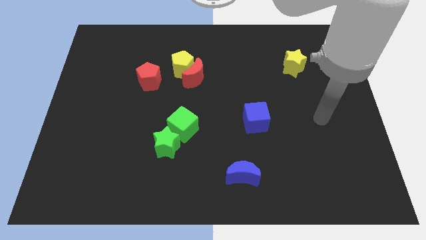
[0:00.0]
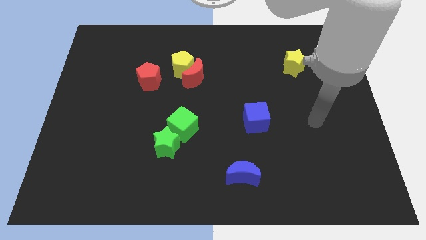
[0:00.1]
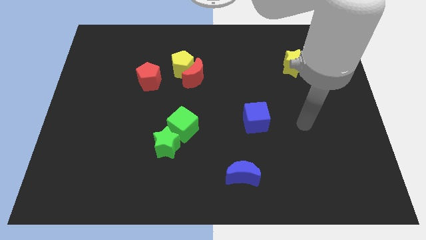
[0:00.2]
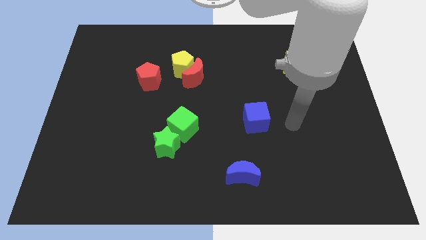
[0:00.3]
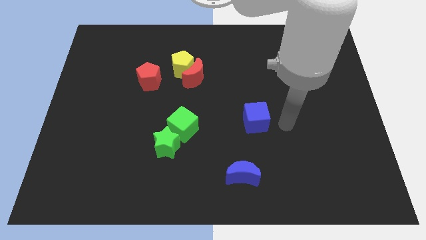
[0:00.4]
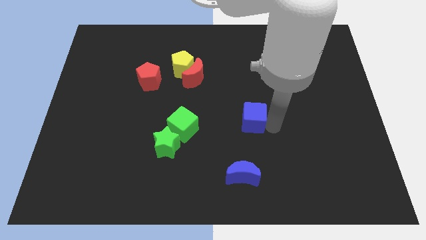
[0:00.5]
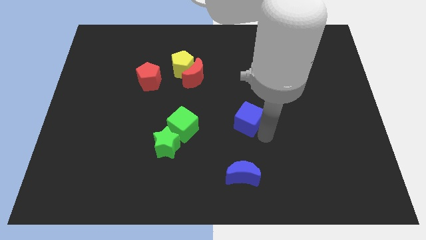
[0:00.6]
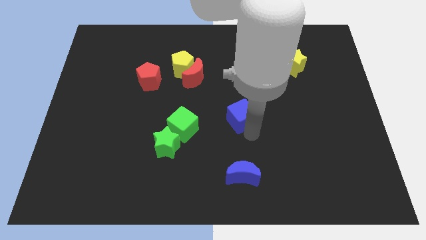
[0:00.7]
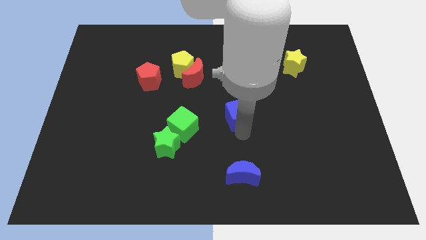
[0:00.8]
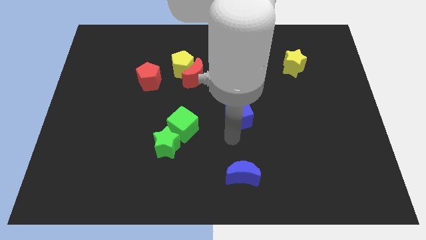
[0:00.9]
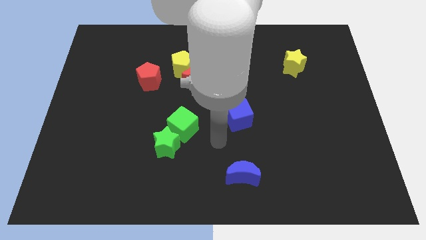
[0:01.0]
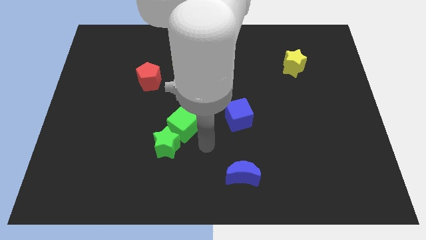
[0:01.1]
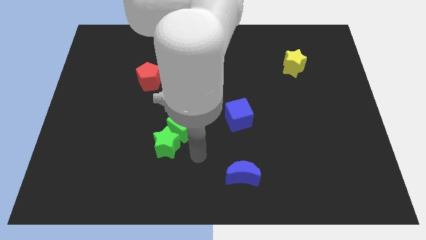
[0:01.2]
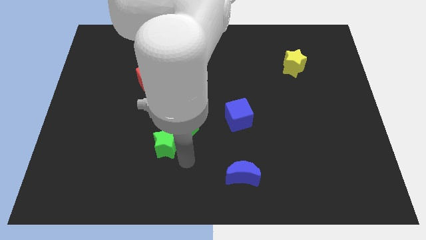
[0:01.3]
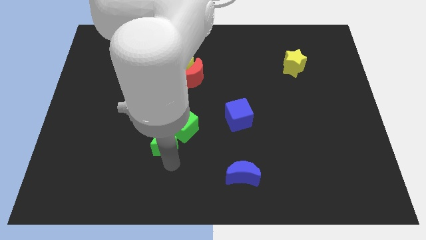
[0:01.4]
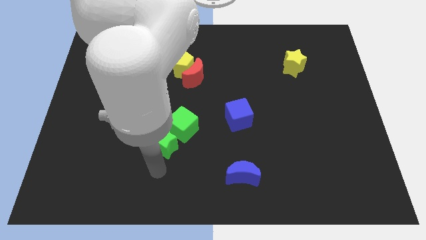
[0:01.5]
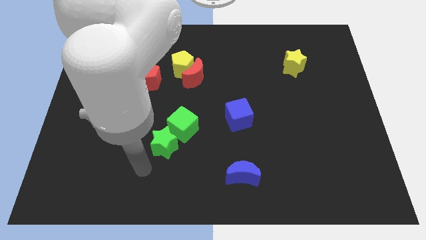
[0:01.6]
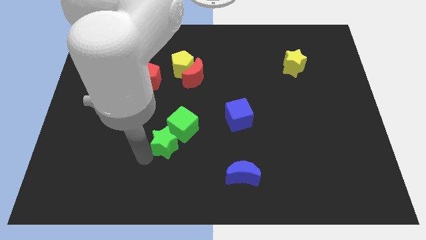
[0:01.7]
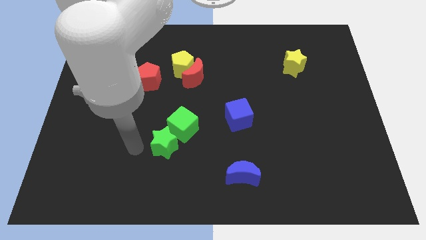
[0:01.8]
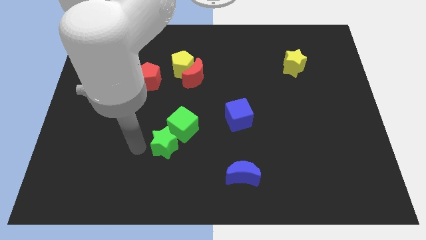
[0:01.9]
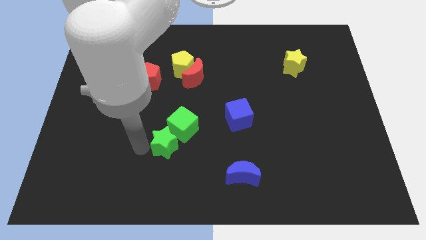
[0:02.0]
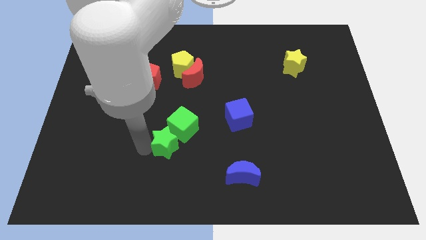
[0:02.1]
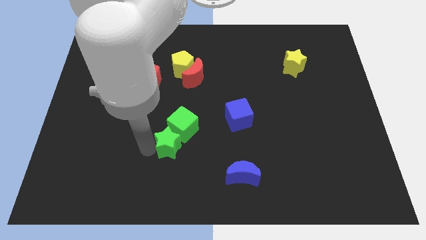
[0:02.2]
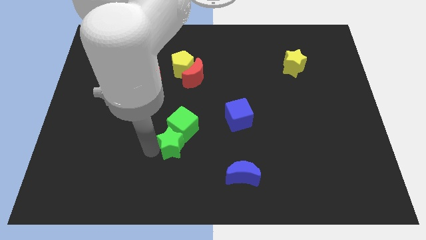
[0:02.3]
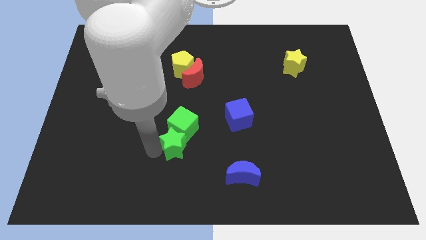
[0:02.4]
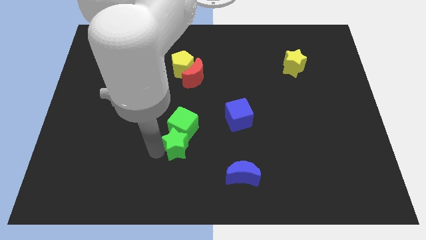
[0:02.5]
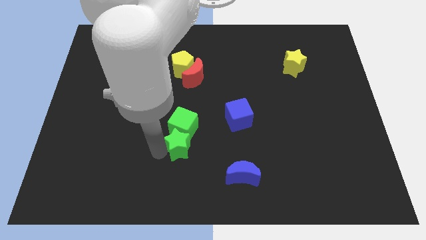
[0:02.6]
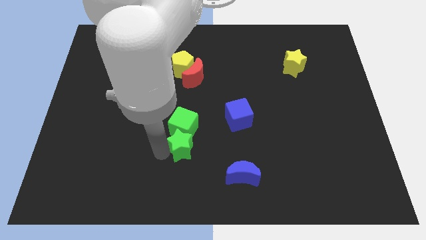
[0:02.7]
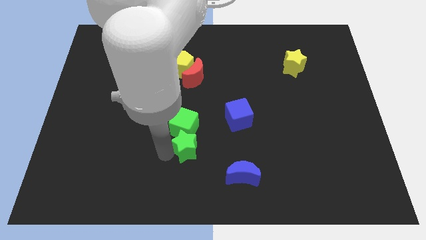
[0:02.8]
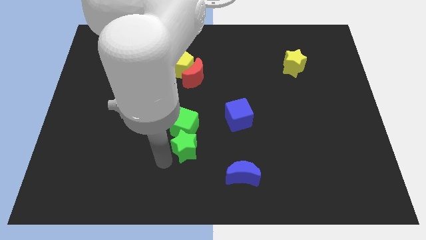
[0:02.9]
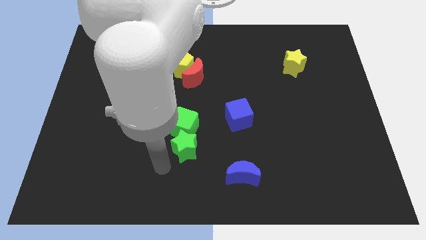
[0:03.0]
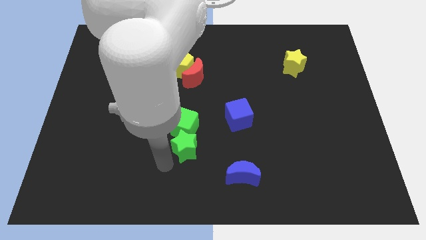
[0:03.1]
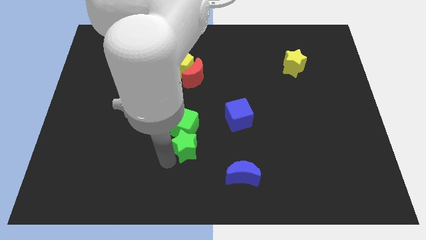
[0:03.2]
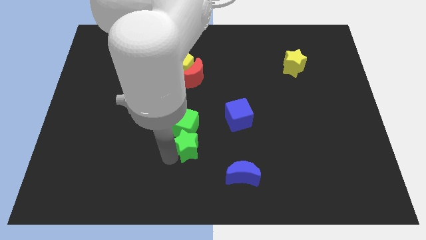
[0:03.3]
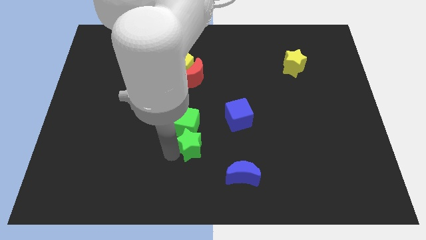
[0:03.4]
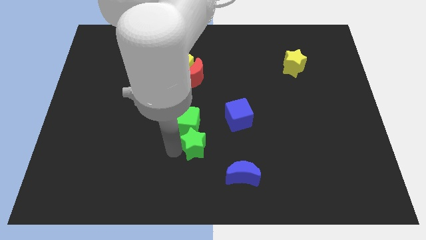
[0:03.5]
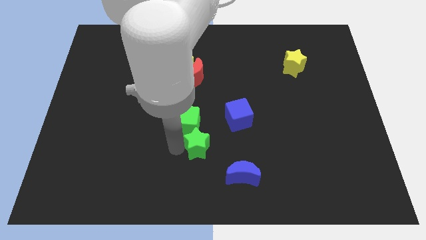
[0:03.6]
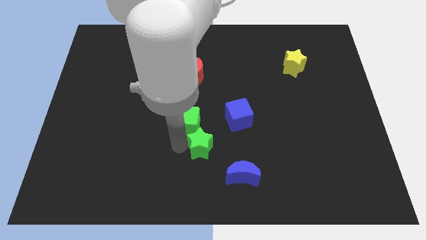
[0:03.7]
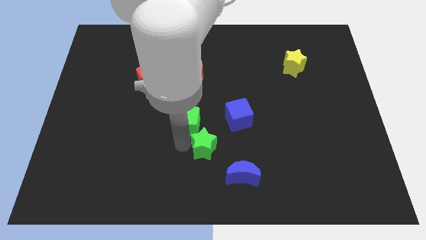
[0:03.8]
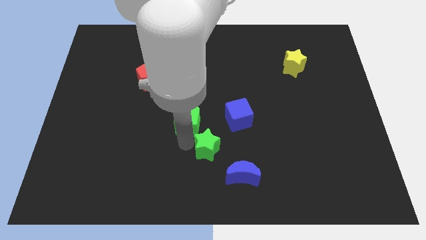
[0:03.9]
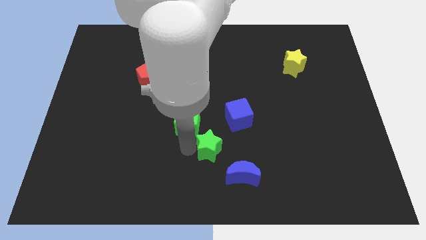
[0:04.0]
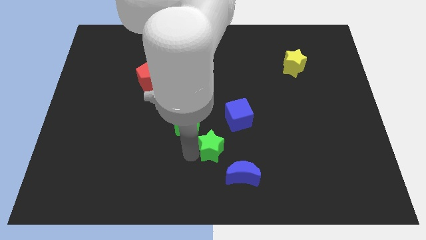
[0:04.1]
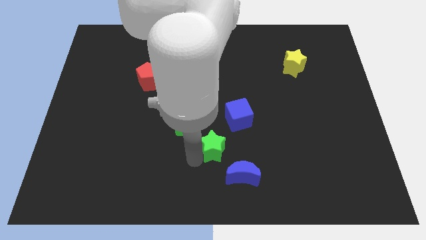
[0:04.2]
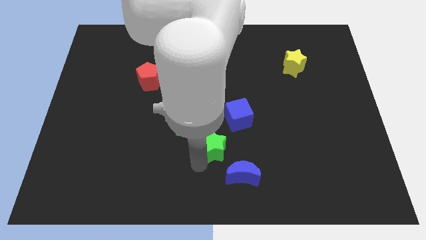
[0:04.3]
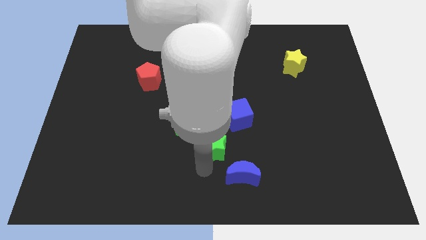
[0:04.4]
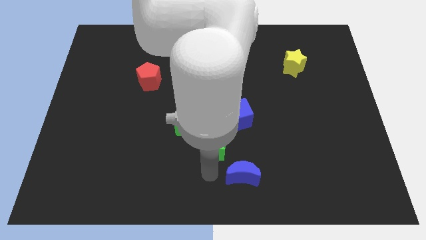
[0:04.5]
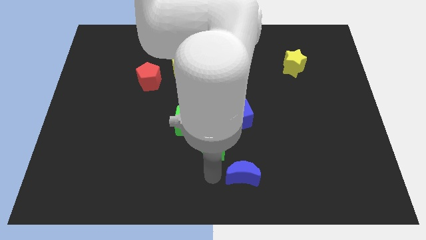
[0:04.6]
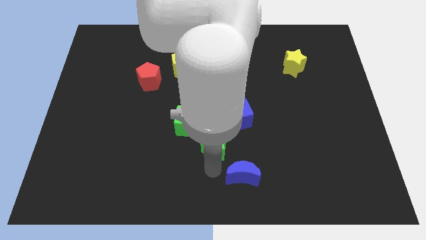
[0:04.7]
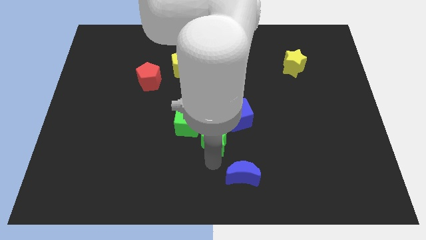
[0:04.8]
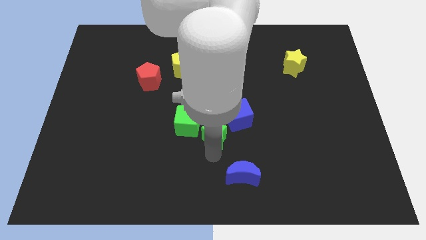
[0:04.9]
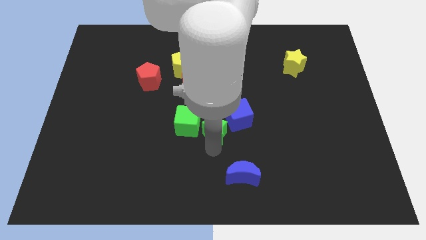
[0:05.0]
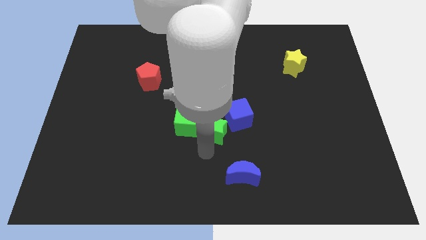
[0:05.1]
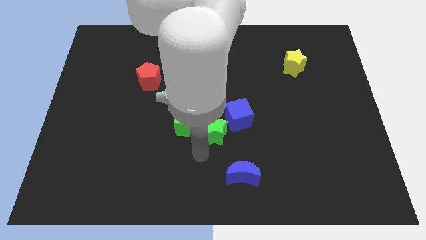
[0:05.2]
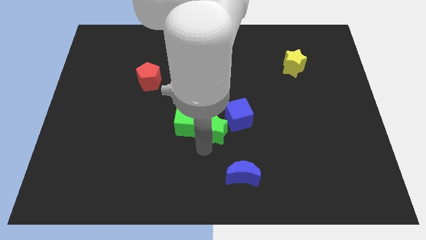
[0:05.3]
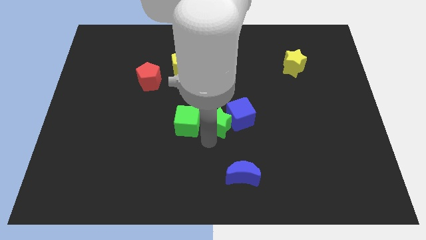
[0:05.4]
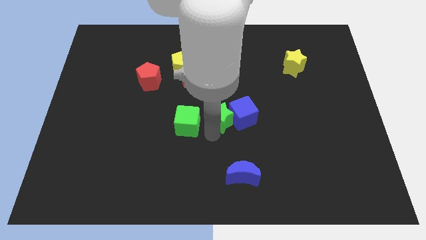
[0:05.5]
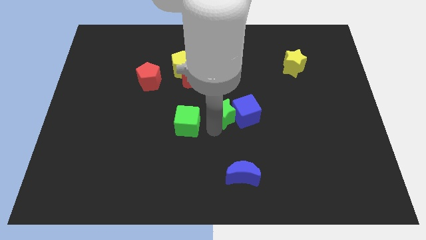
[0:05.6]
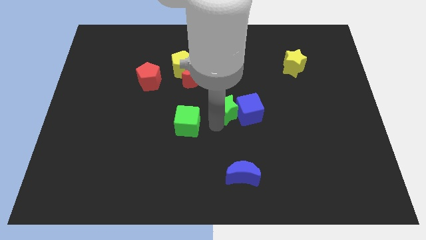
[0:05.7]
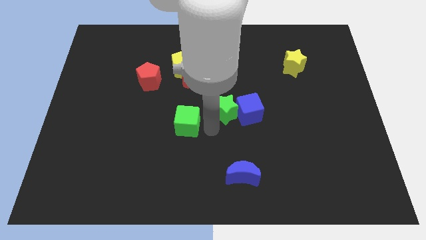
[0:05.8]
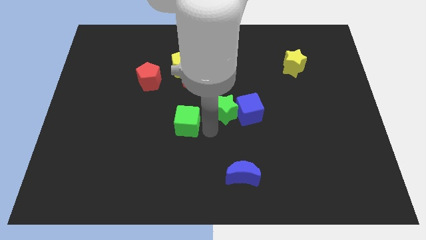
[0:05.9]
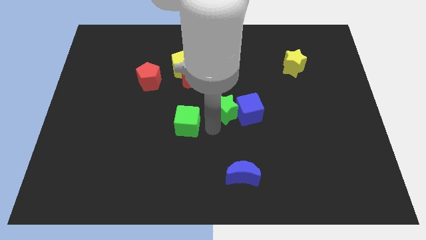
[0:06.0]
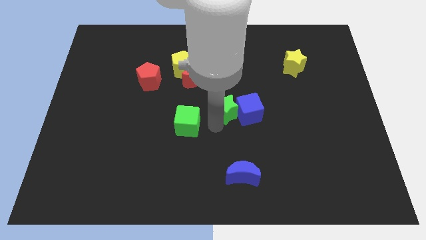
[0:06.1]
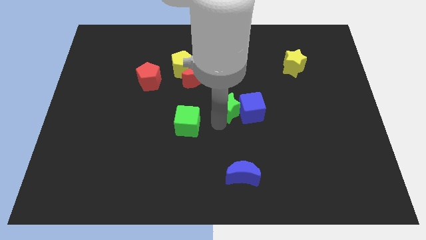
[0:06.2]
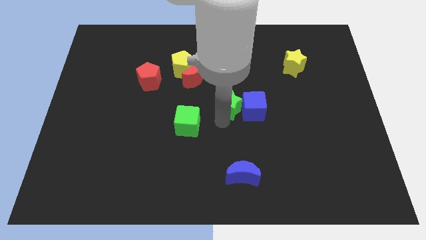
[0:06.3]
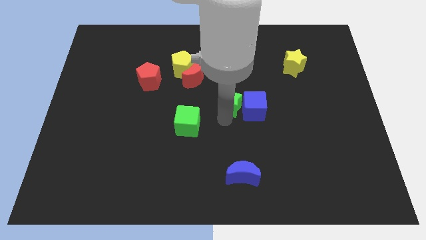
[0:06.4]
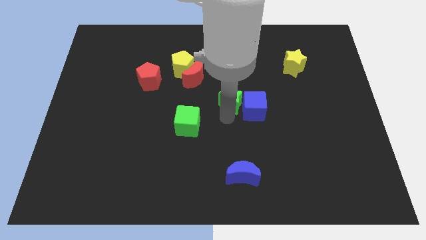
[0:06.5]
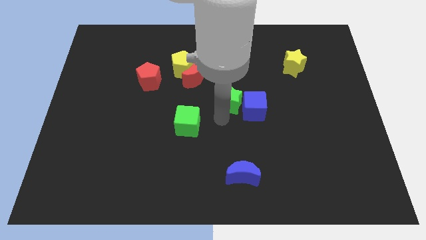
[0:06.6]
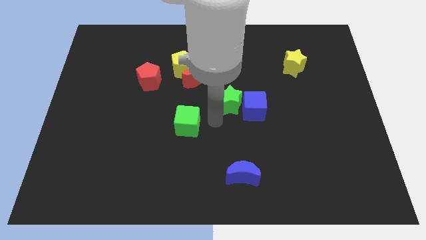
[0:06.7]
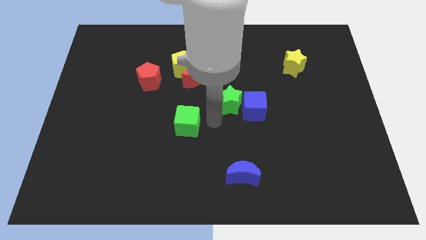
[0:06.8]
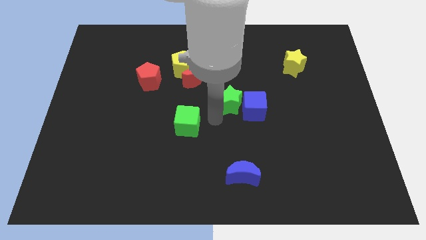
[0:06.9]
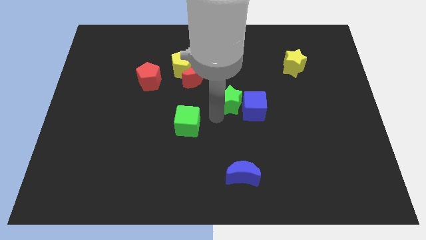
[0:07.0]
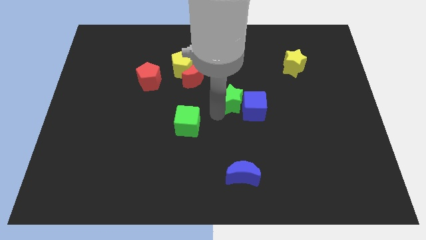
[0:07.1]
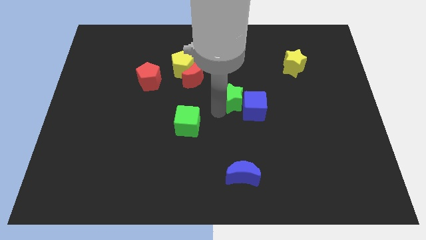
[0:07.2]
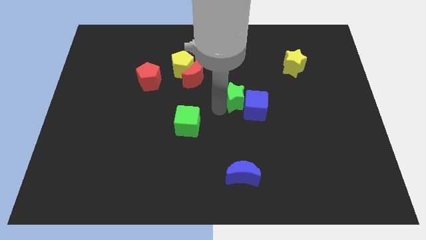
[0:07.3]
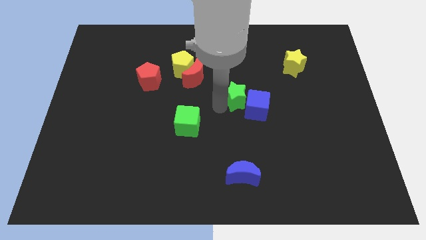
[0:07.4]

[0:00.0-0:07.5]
push the green star up and then to the right

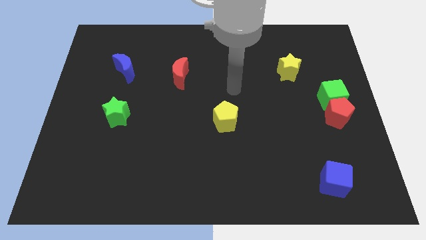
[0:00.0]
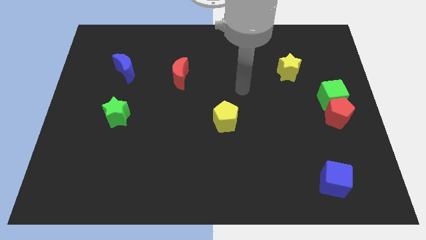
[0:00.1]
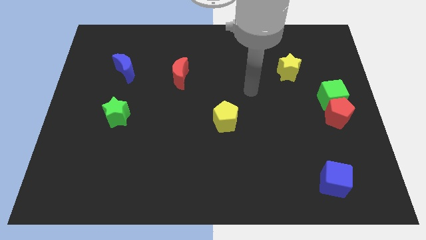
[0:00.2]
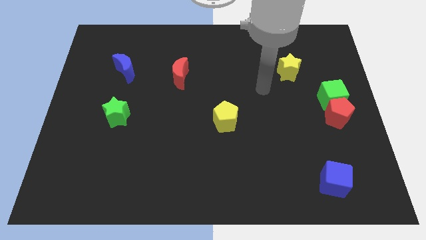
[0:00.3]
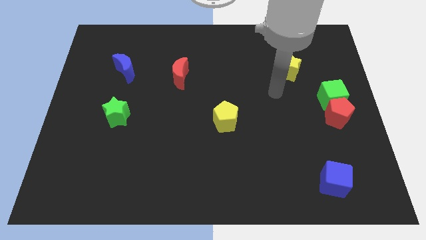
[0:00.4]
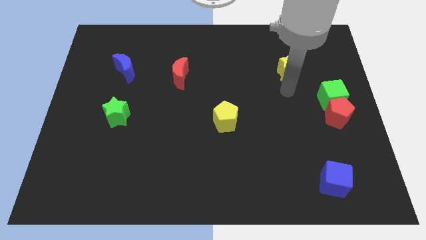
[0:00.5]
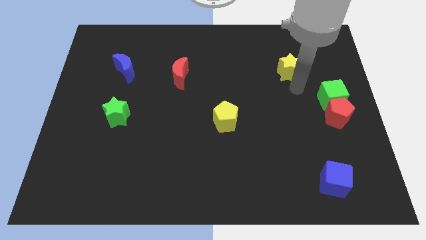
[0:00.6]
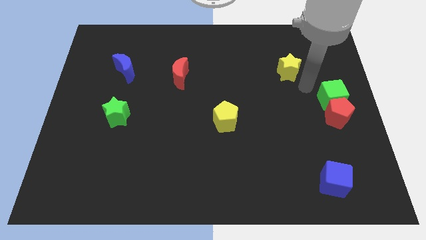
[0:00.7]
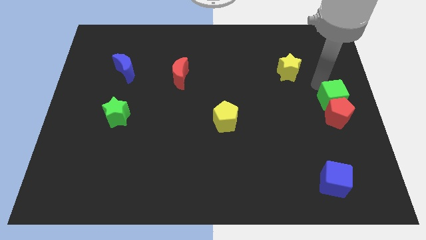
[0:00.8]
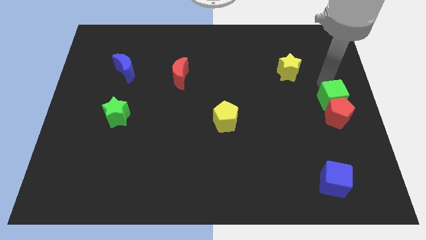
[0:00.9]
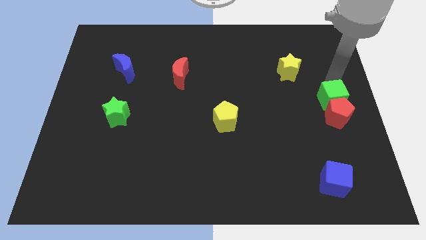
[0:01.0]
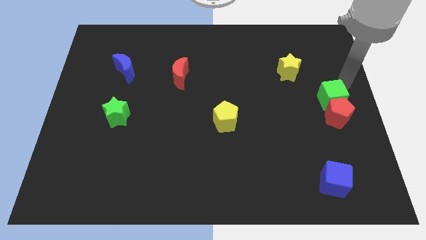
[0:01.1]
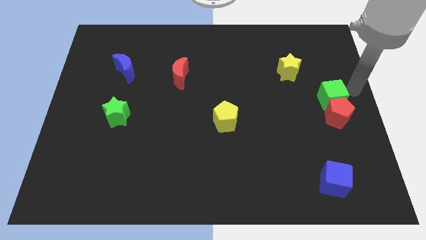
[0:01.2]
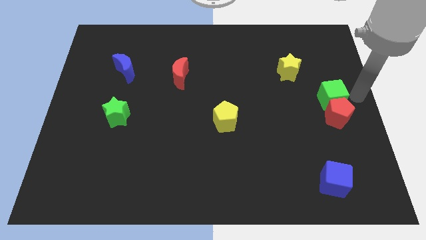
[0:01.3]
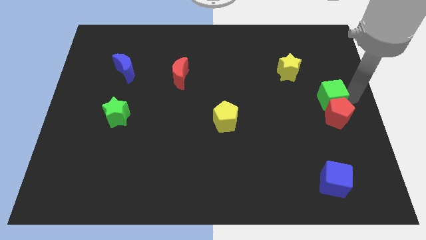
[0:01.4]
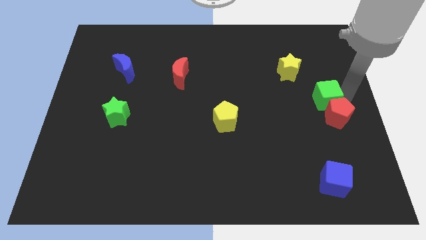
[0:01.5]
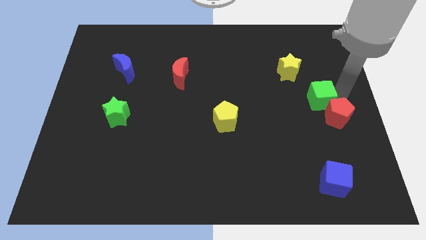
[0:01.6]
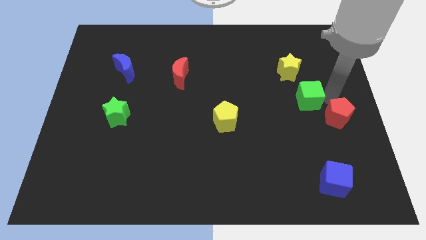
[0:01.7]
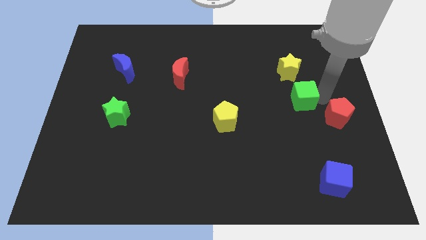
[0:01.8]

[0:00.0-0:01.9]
move the green cube left slightly
